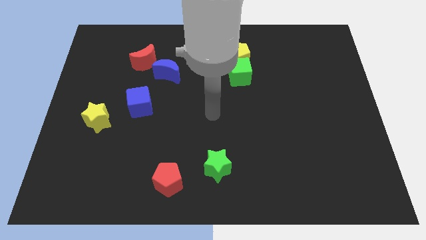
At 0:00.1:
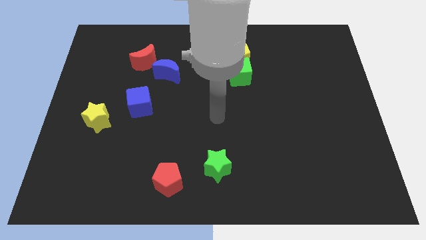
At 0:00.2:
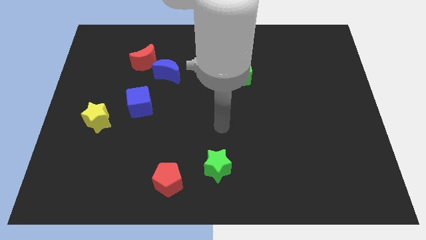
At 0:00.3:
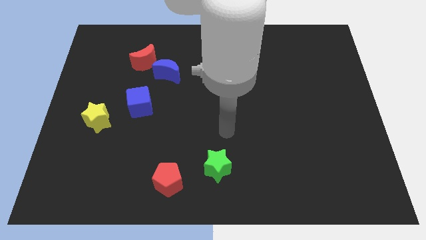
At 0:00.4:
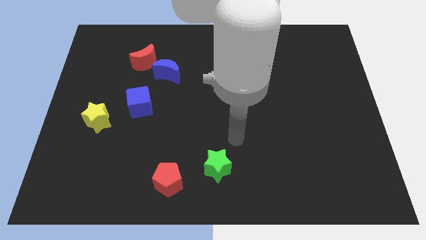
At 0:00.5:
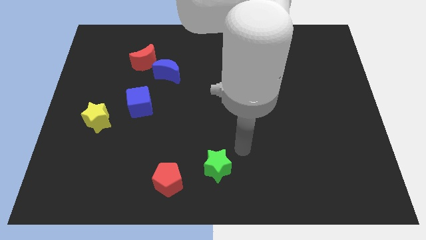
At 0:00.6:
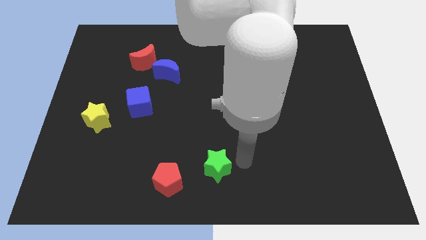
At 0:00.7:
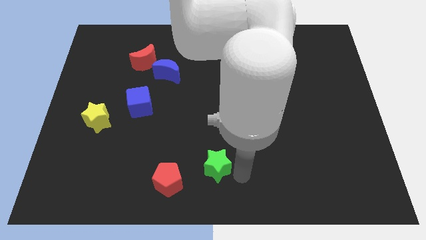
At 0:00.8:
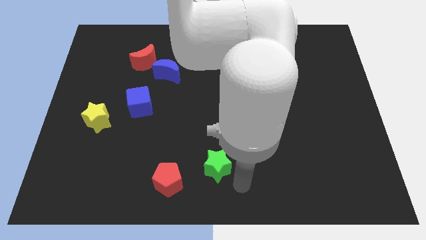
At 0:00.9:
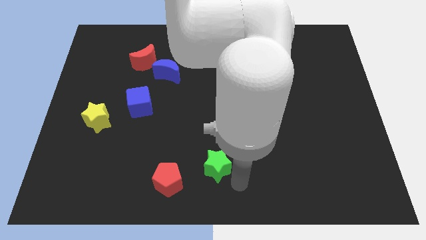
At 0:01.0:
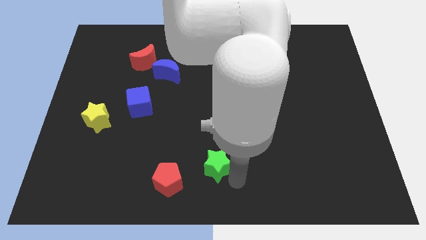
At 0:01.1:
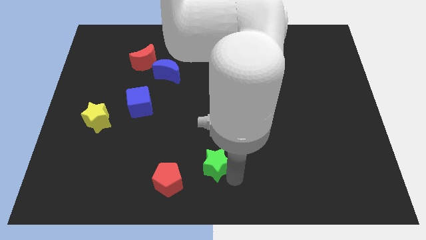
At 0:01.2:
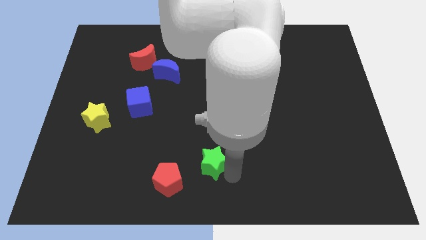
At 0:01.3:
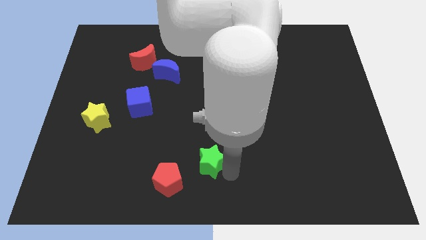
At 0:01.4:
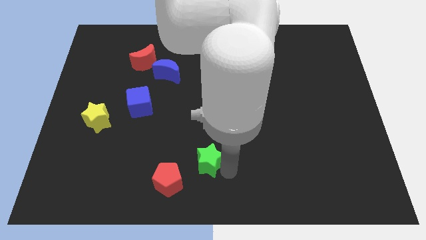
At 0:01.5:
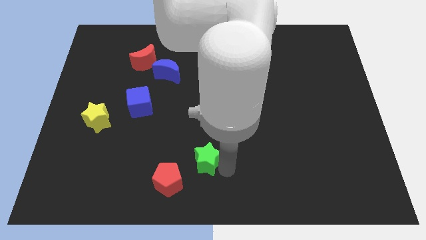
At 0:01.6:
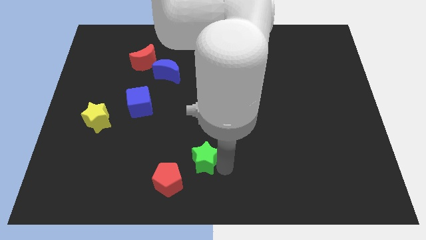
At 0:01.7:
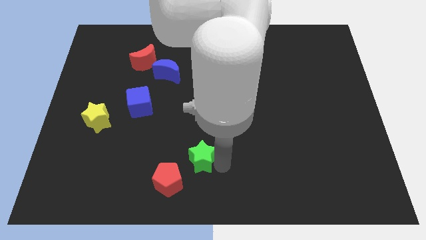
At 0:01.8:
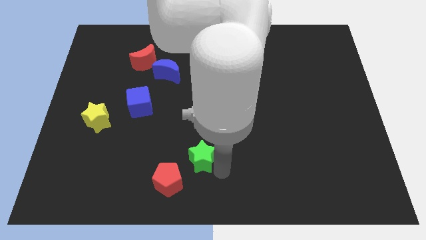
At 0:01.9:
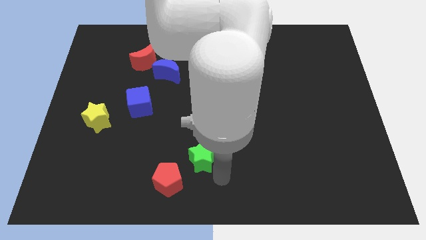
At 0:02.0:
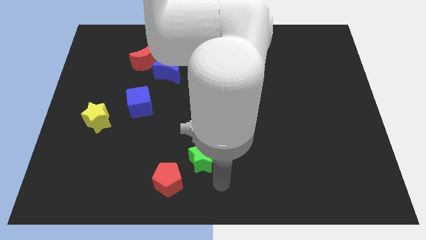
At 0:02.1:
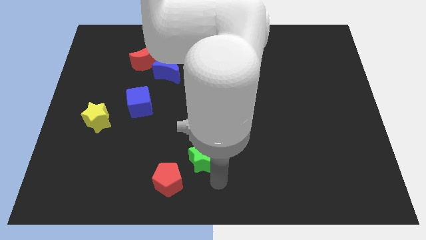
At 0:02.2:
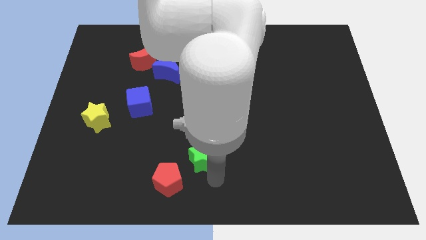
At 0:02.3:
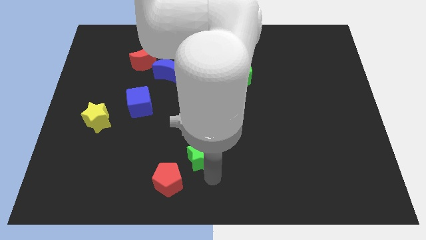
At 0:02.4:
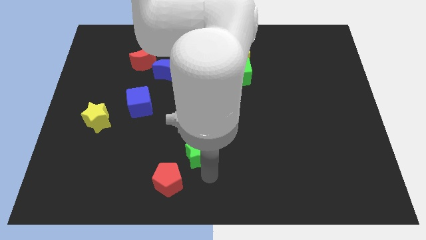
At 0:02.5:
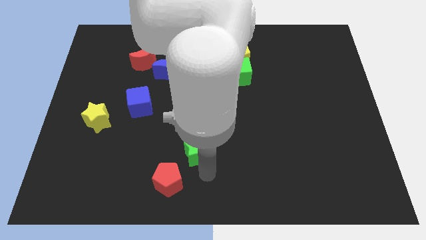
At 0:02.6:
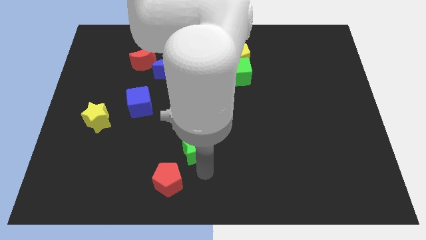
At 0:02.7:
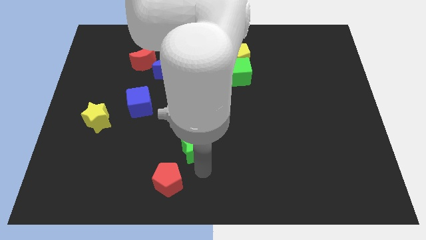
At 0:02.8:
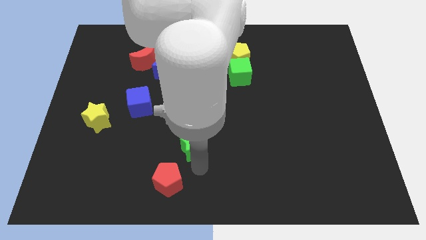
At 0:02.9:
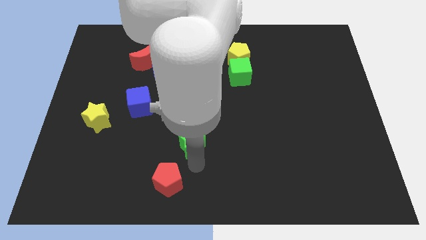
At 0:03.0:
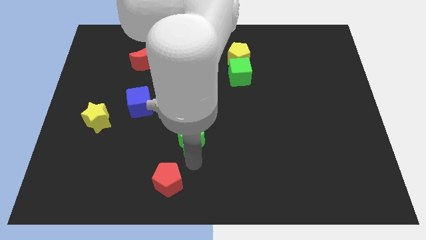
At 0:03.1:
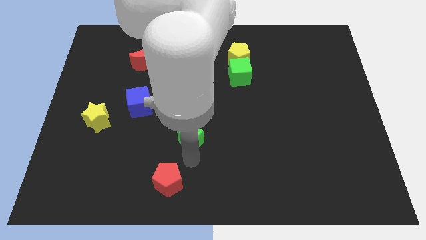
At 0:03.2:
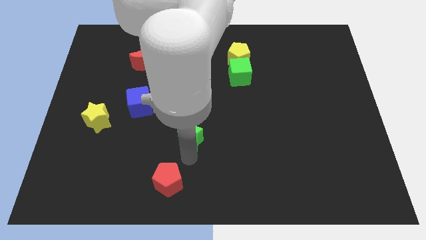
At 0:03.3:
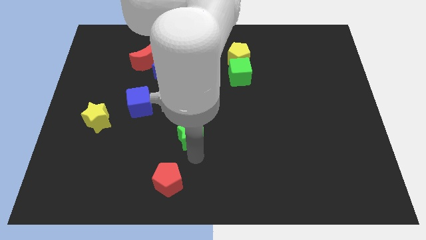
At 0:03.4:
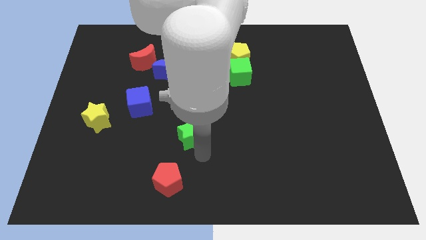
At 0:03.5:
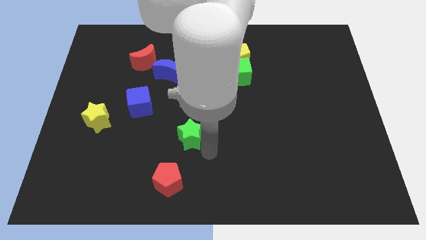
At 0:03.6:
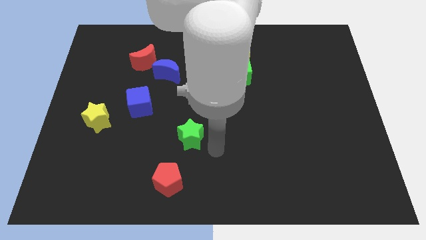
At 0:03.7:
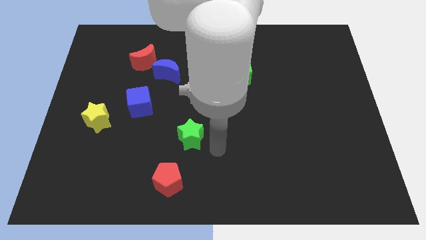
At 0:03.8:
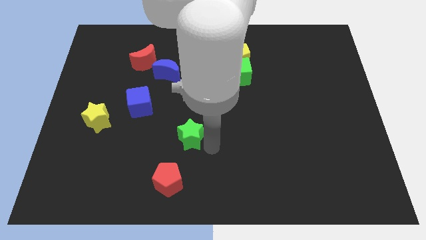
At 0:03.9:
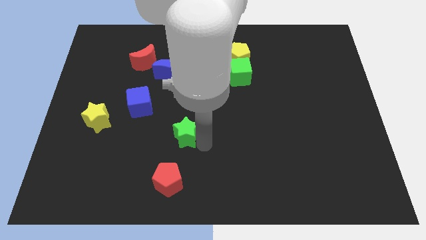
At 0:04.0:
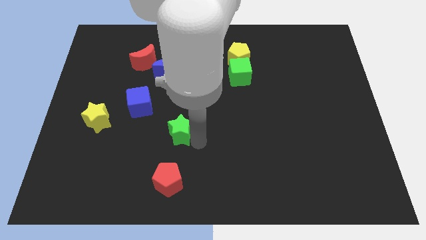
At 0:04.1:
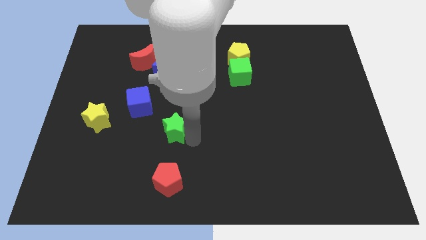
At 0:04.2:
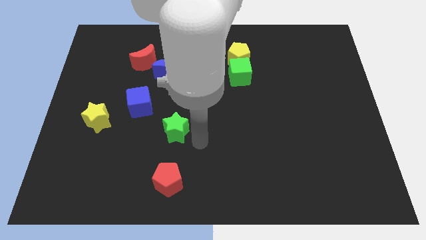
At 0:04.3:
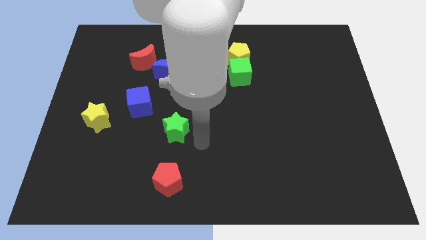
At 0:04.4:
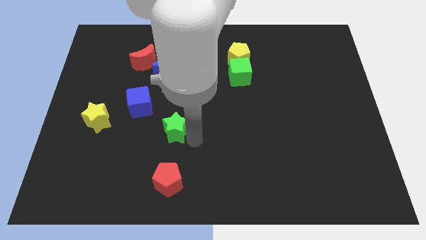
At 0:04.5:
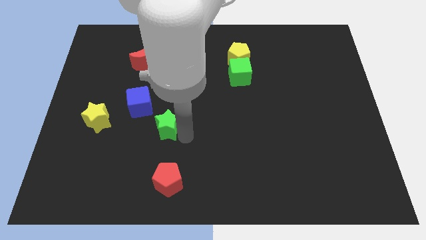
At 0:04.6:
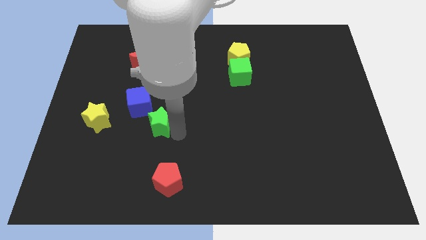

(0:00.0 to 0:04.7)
push the green star just right of the yellow star

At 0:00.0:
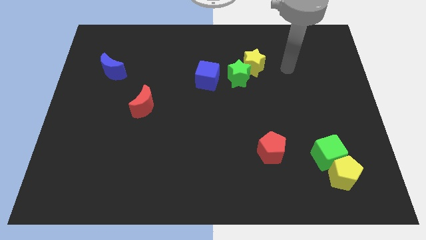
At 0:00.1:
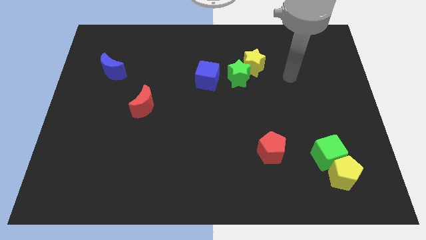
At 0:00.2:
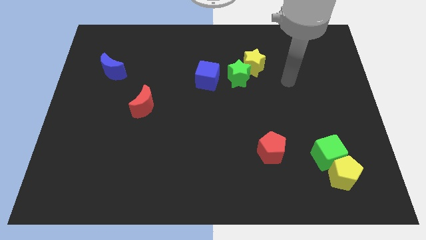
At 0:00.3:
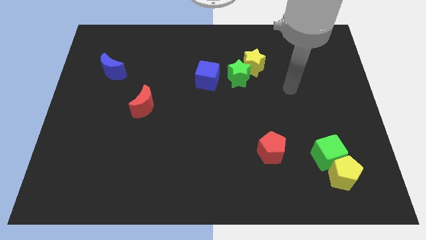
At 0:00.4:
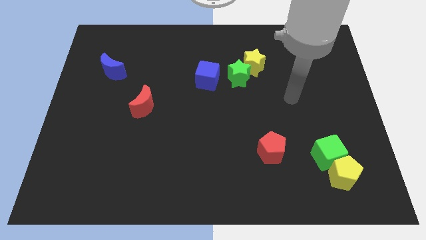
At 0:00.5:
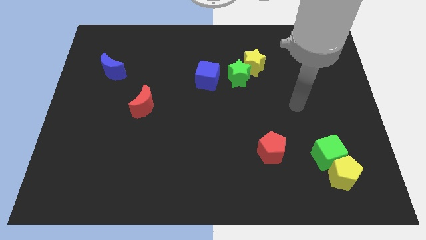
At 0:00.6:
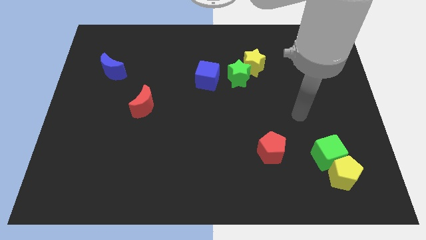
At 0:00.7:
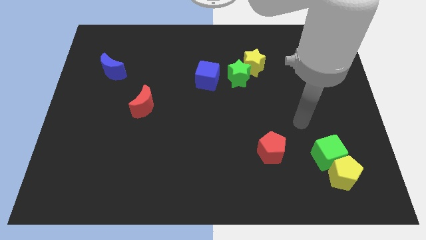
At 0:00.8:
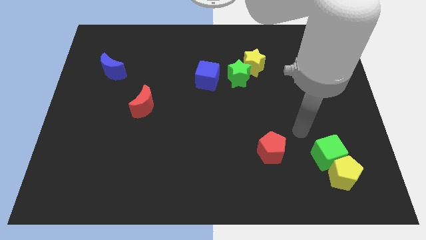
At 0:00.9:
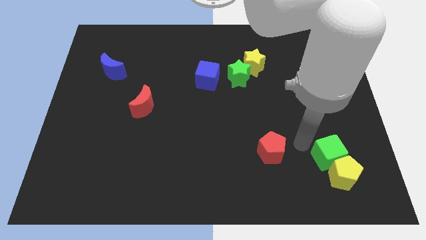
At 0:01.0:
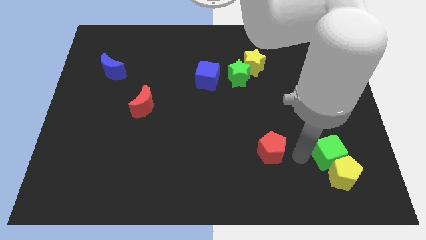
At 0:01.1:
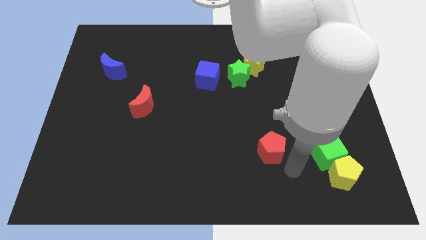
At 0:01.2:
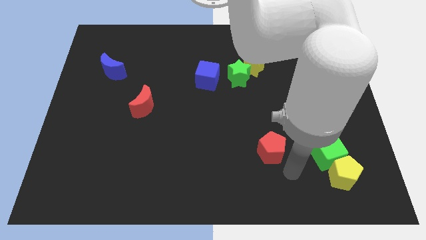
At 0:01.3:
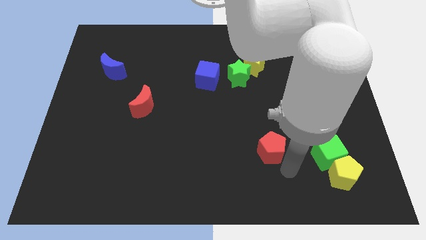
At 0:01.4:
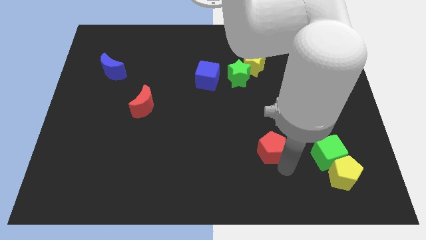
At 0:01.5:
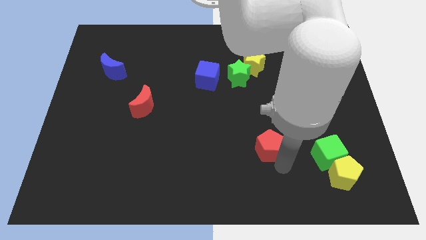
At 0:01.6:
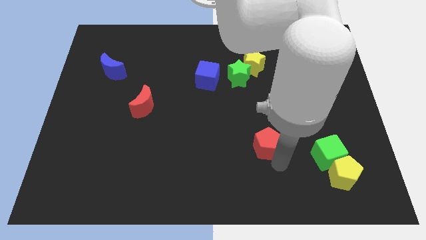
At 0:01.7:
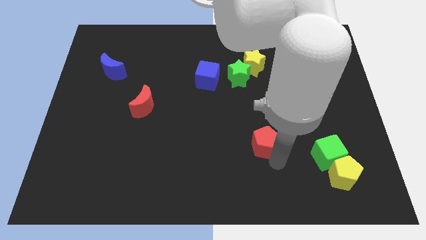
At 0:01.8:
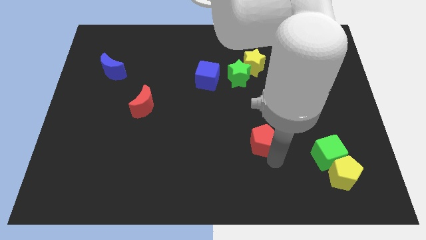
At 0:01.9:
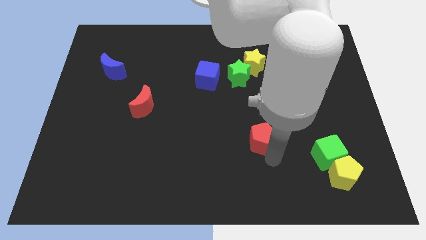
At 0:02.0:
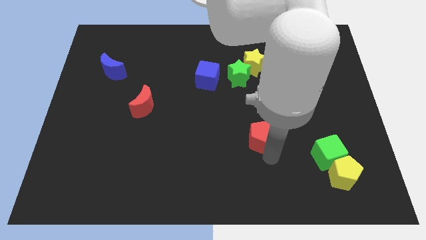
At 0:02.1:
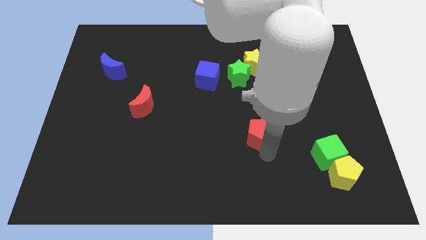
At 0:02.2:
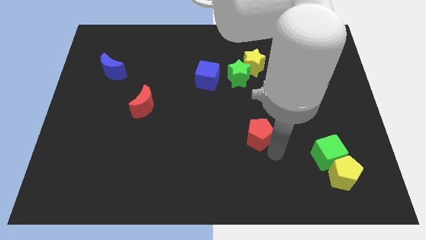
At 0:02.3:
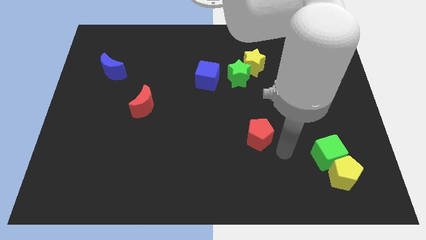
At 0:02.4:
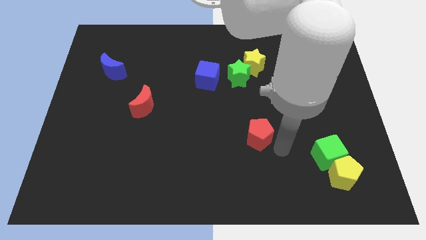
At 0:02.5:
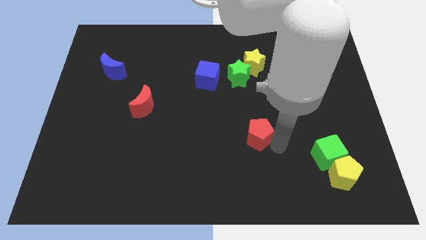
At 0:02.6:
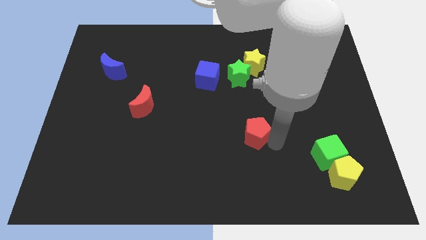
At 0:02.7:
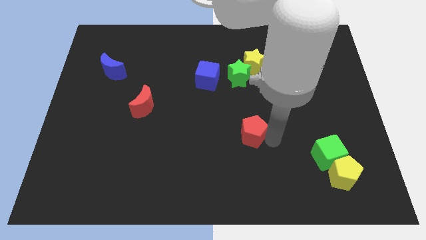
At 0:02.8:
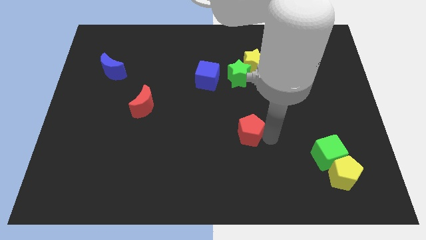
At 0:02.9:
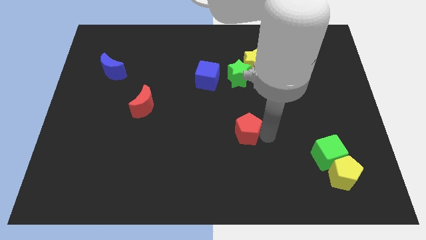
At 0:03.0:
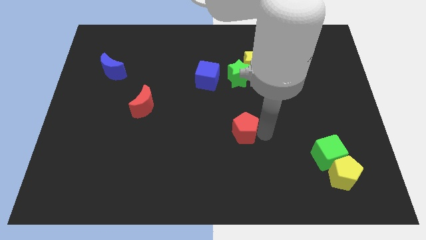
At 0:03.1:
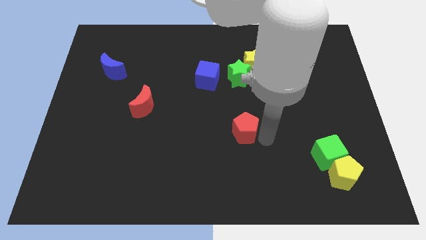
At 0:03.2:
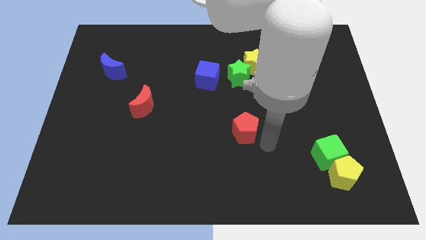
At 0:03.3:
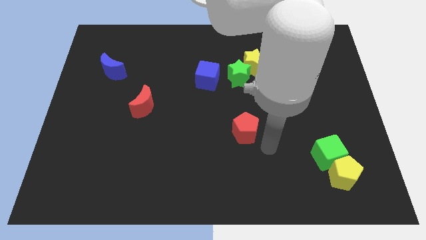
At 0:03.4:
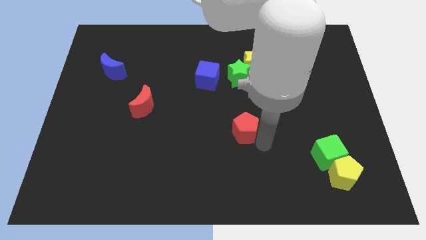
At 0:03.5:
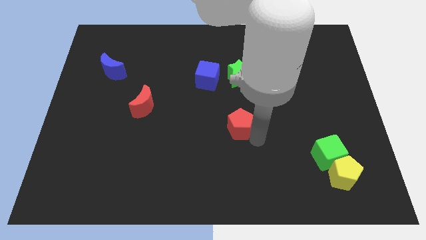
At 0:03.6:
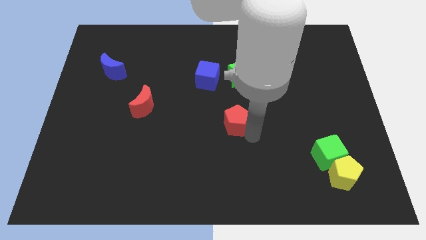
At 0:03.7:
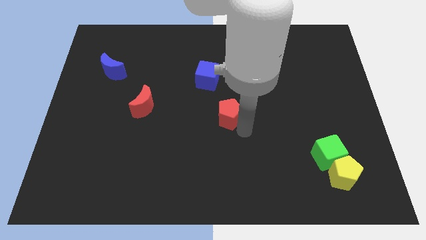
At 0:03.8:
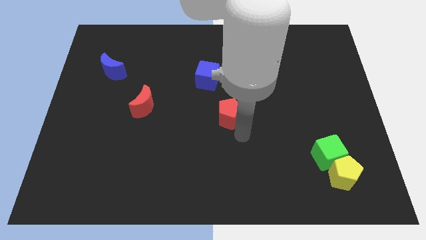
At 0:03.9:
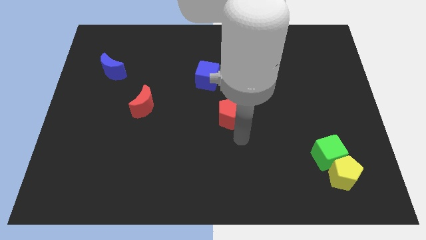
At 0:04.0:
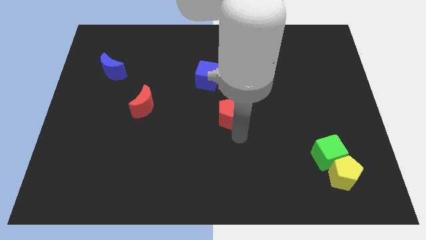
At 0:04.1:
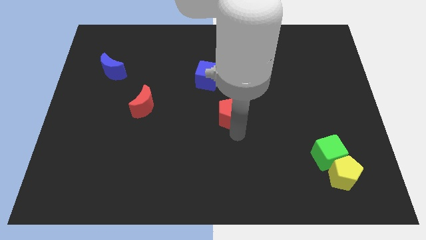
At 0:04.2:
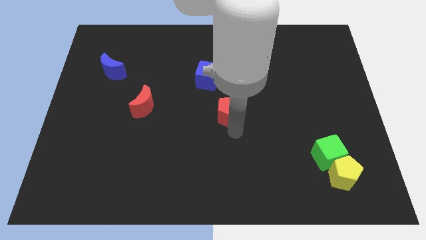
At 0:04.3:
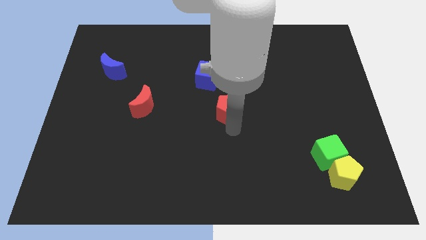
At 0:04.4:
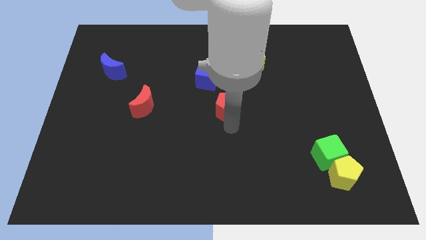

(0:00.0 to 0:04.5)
move the red pentagon diagonally down and to the left of the green star
